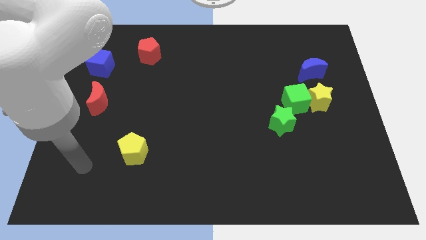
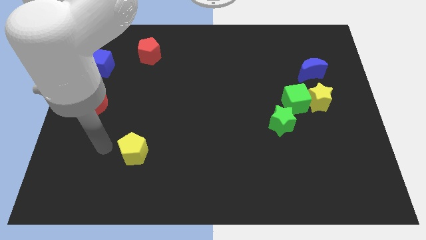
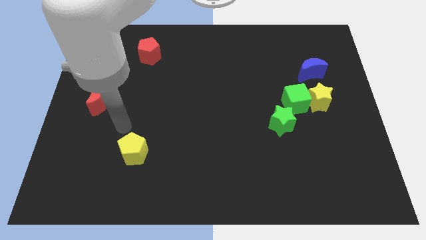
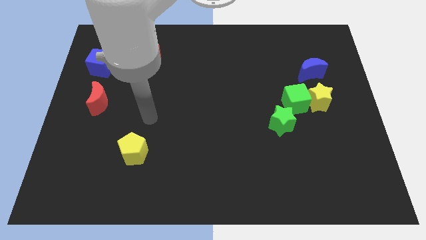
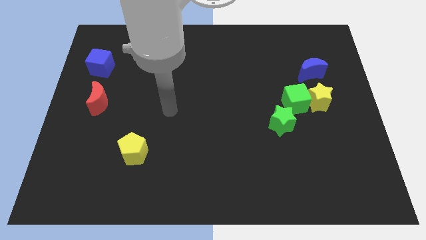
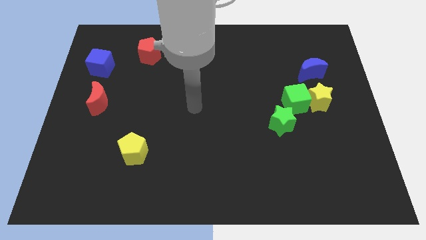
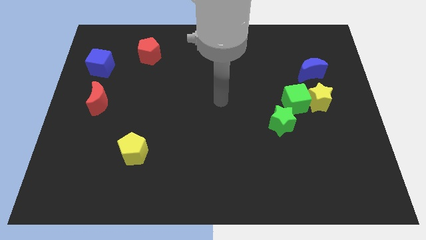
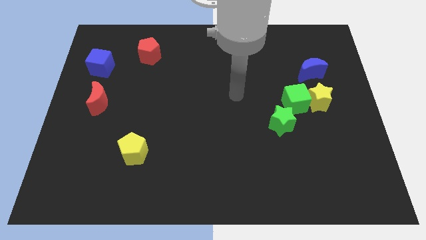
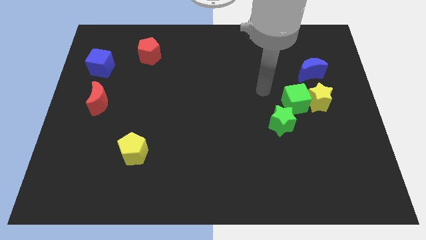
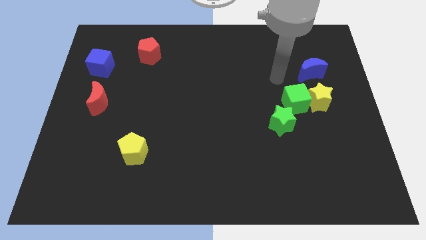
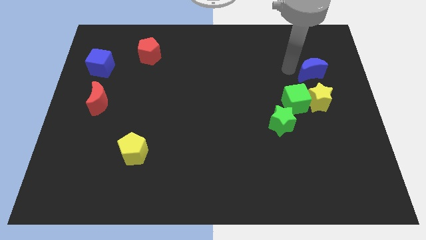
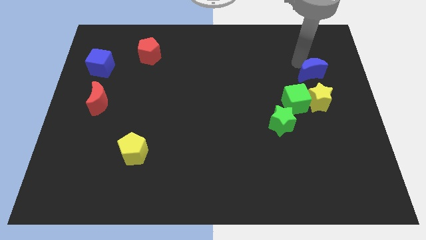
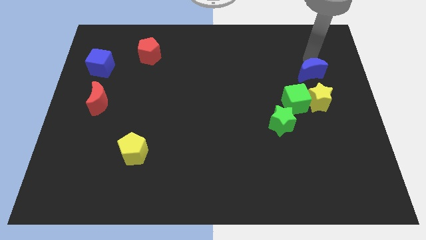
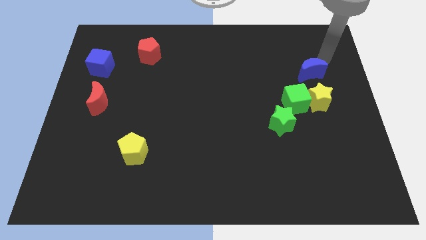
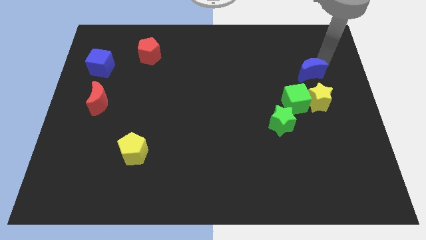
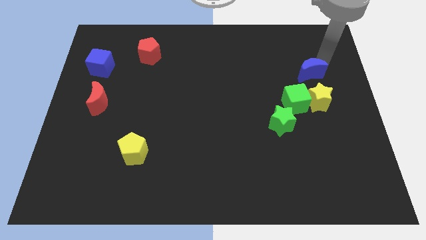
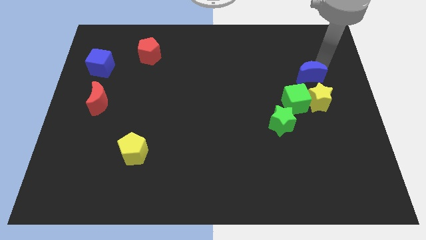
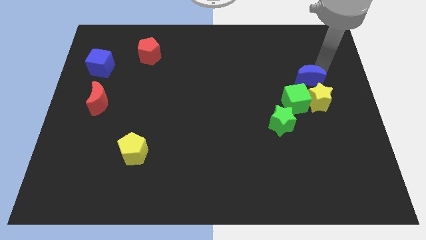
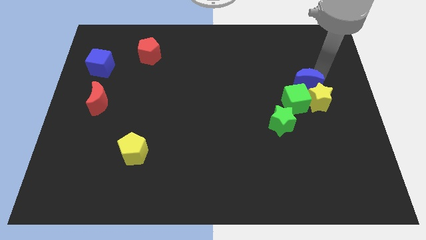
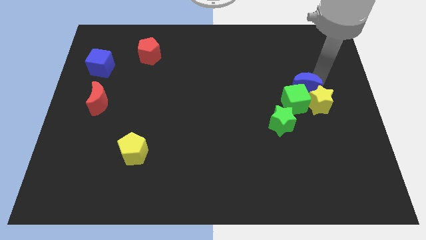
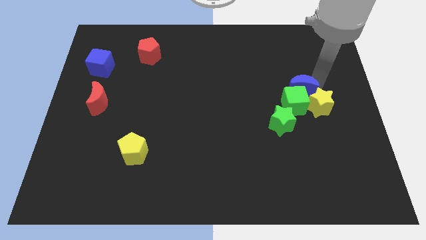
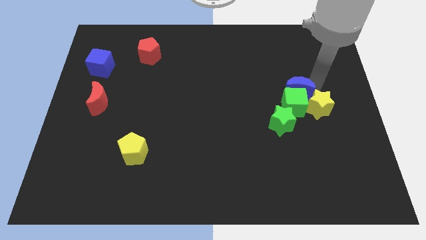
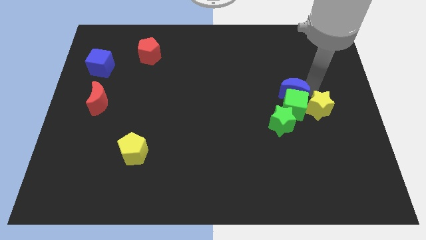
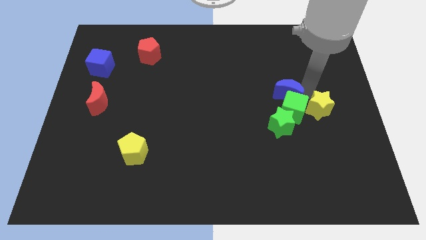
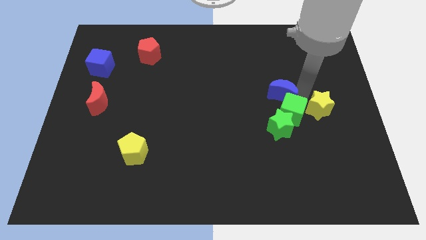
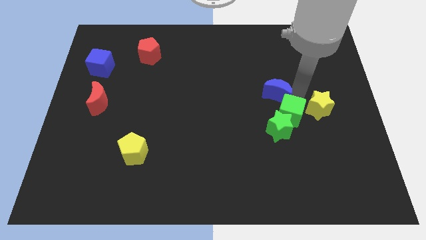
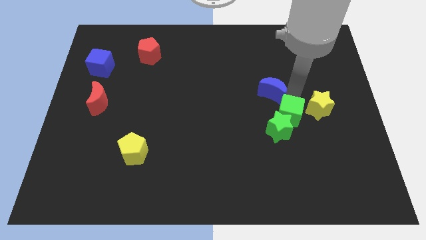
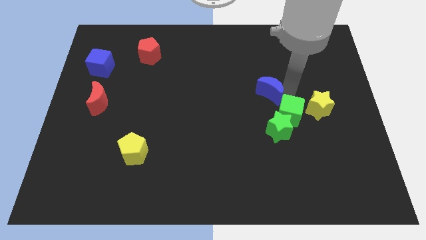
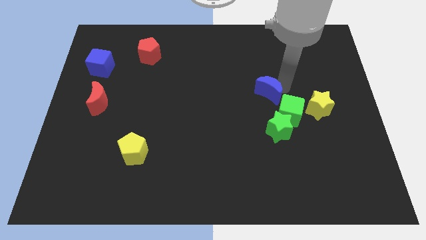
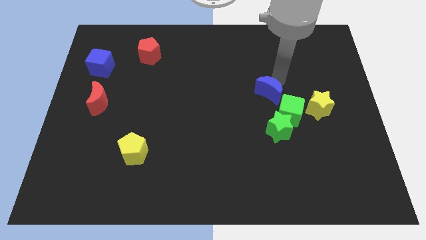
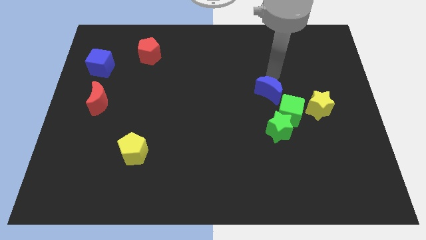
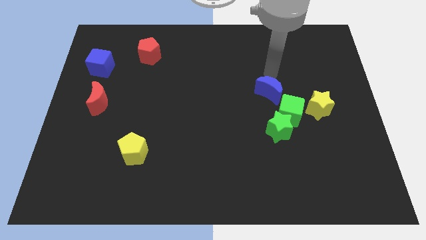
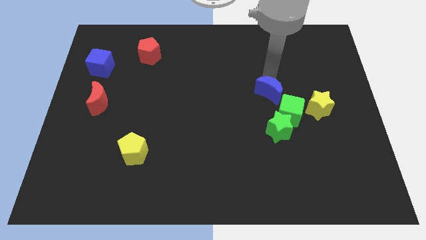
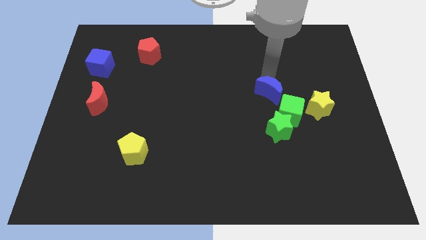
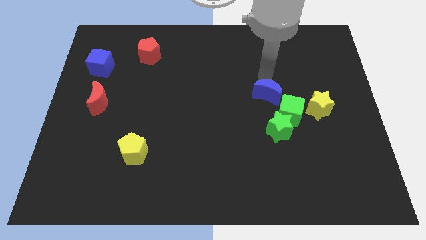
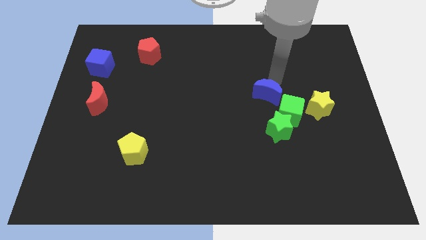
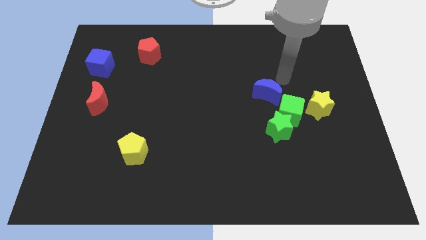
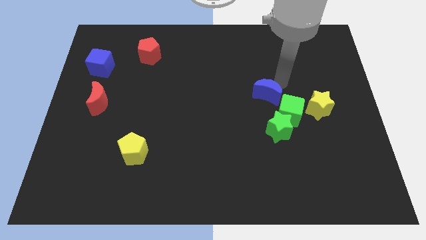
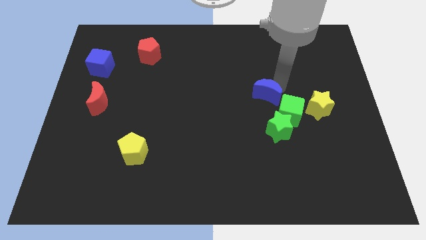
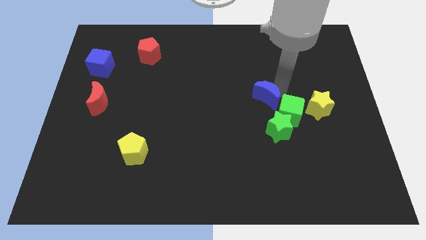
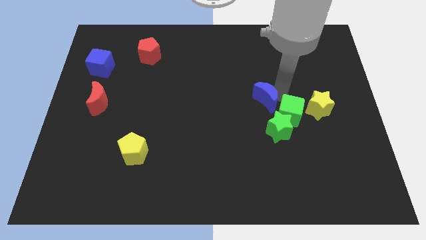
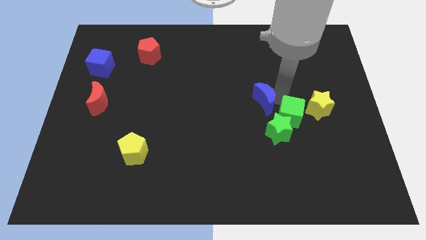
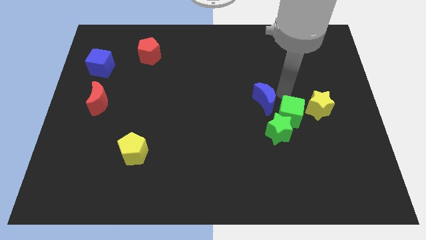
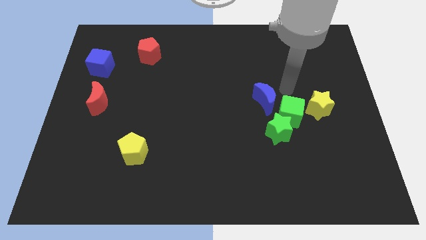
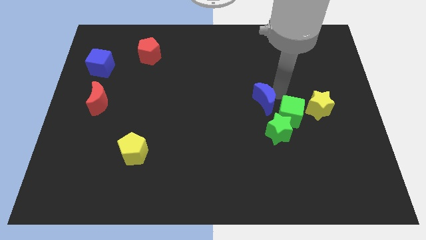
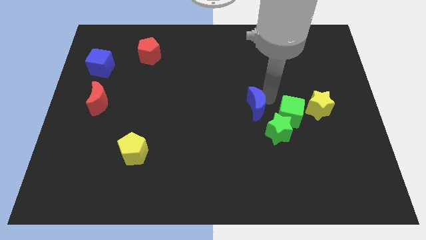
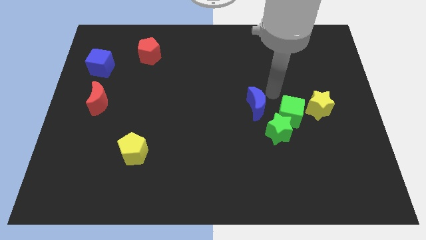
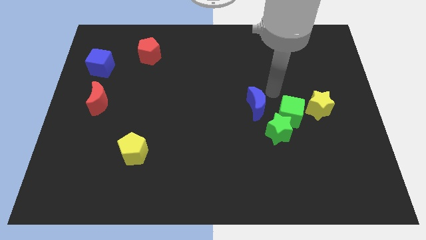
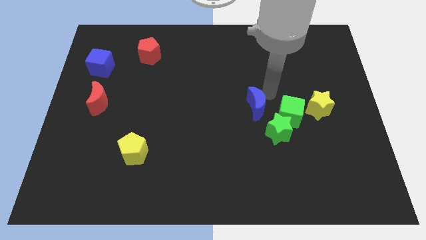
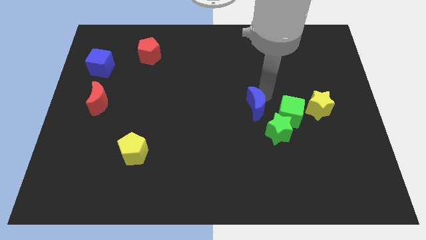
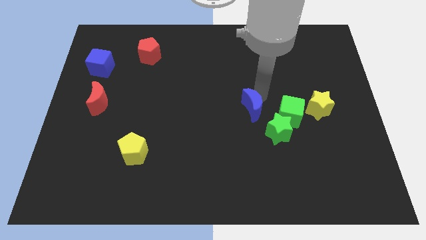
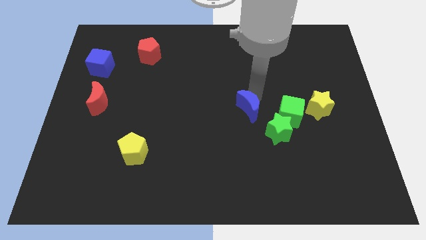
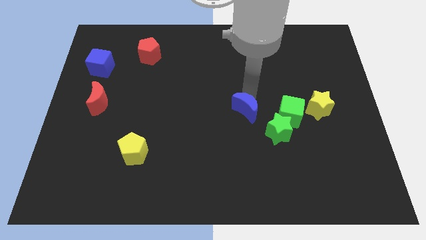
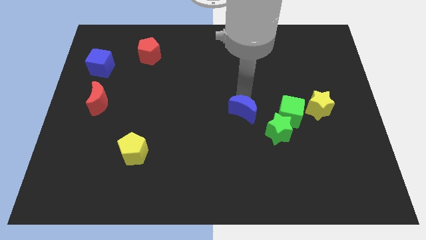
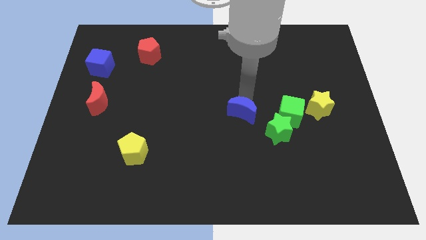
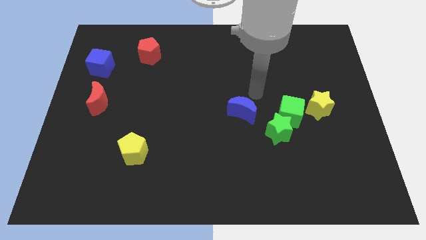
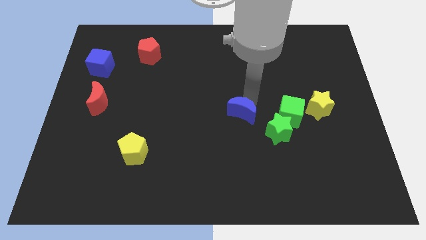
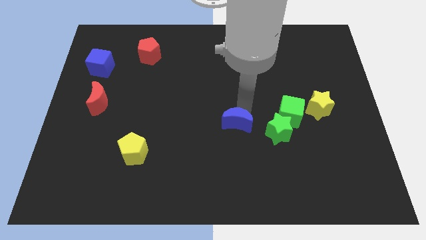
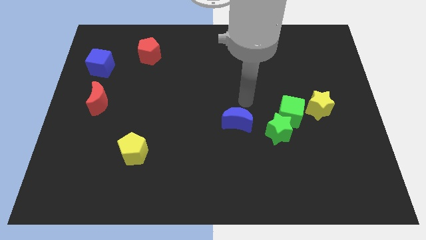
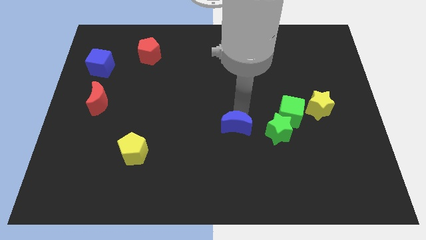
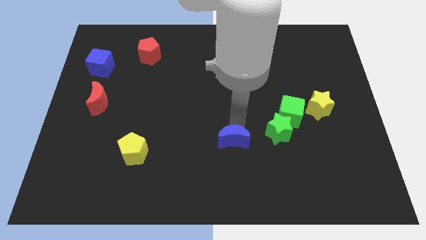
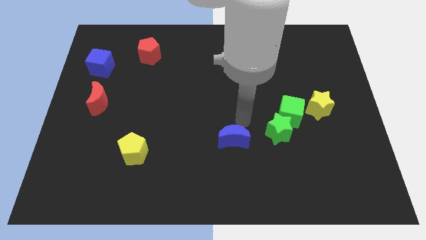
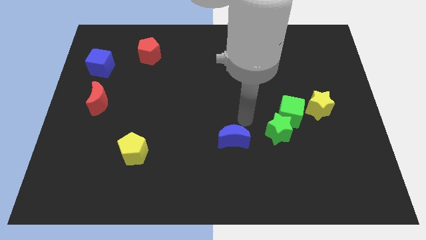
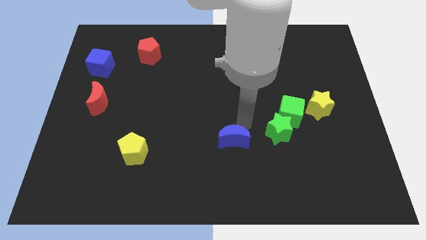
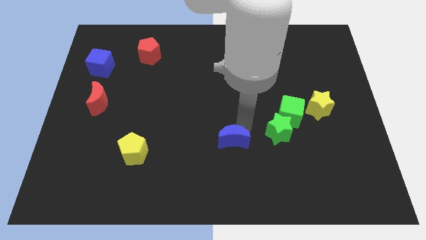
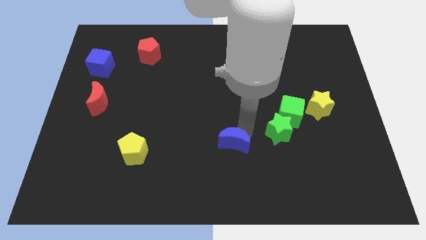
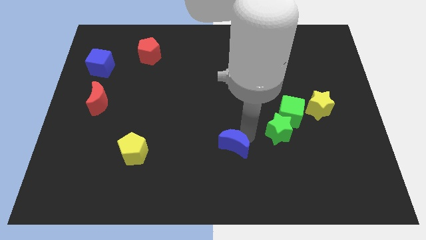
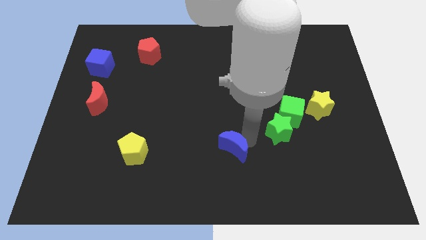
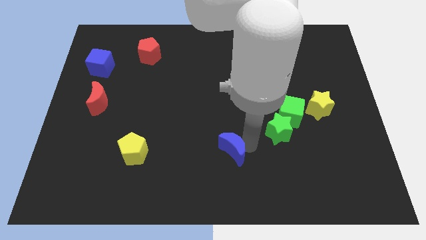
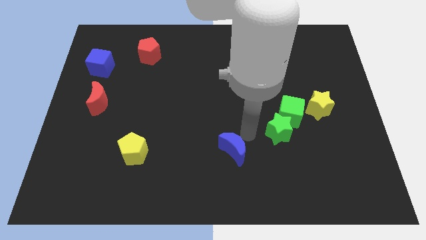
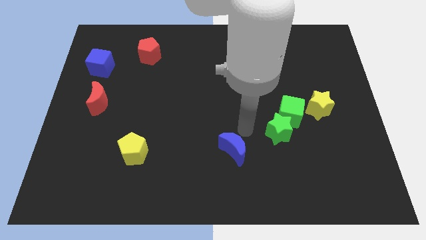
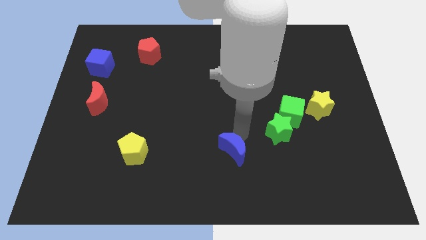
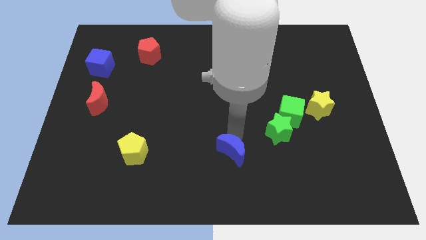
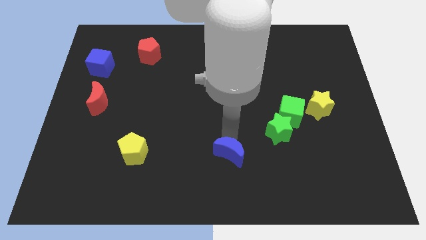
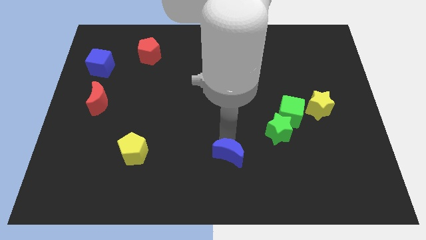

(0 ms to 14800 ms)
slide the blue moon to the bottom side

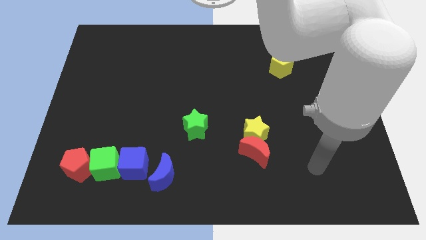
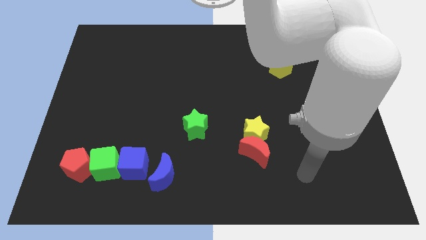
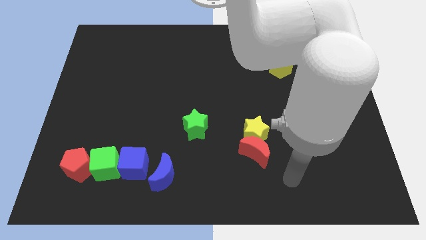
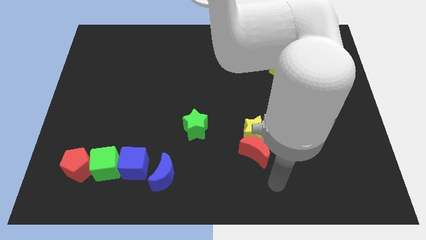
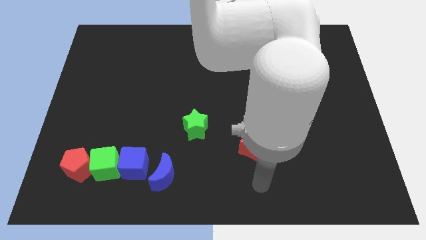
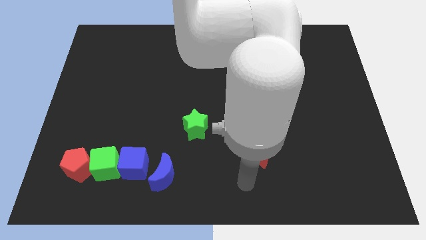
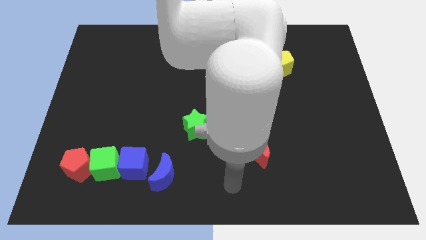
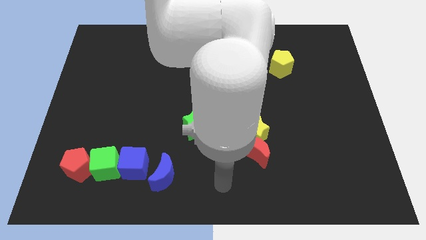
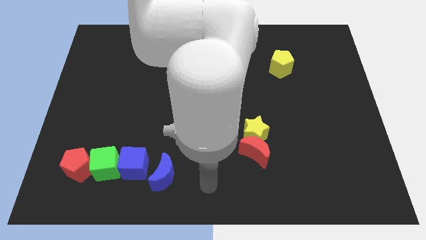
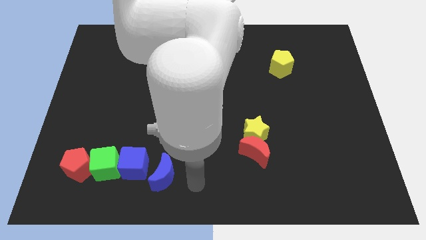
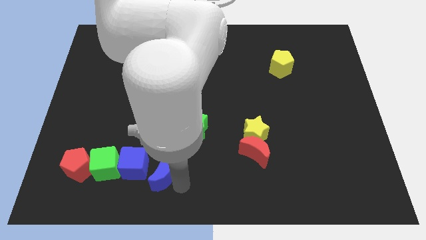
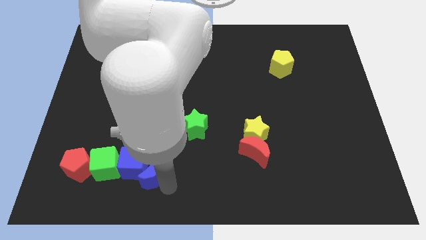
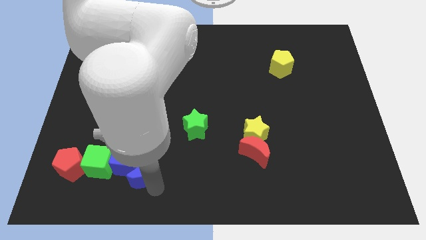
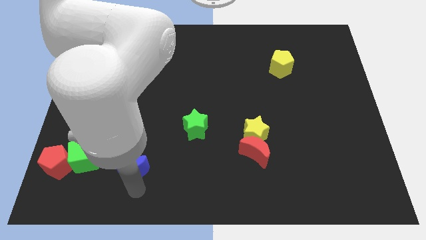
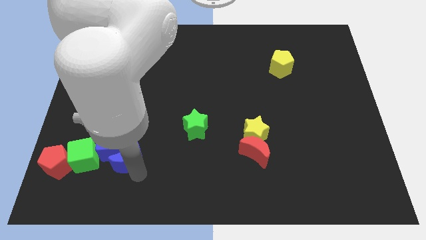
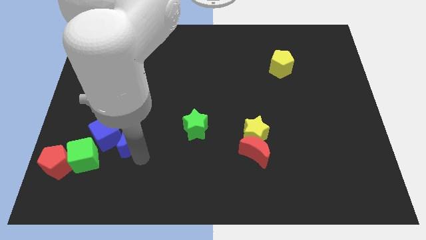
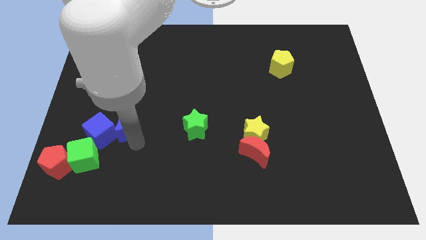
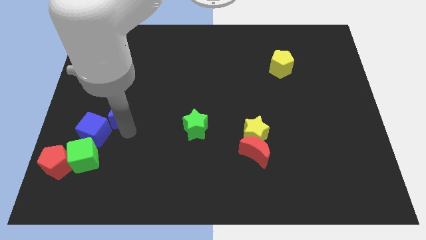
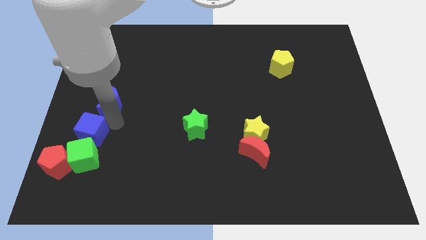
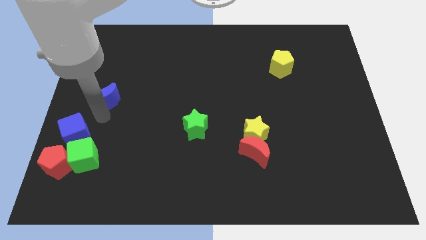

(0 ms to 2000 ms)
slide the blue cube to the left side
